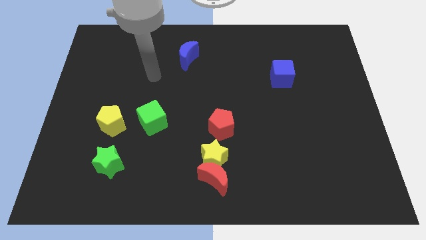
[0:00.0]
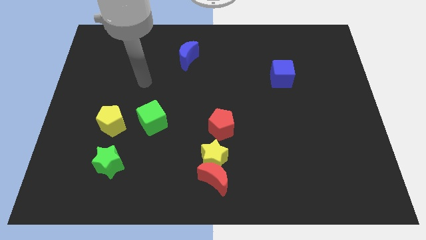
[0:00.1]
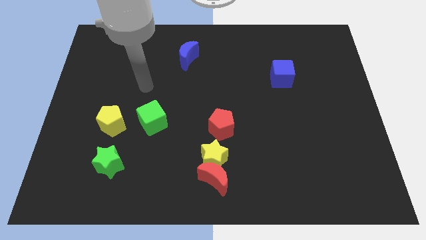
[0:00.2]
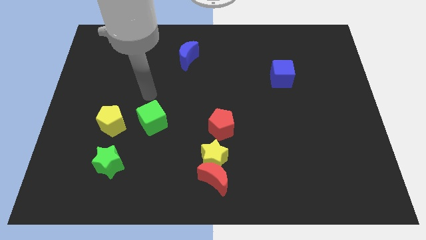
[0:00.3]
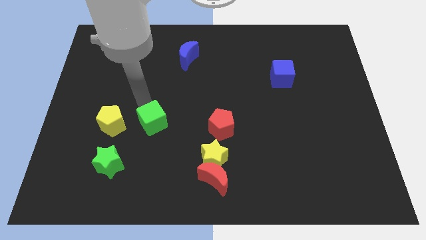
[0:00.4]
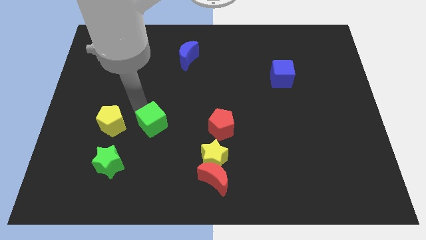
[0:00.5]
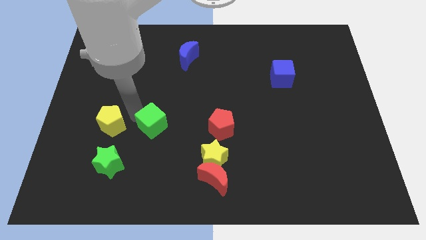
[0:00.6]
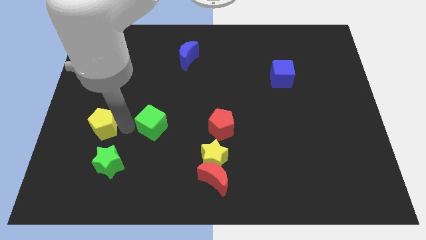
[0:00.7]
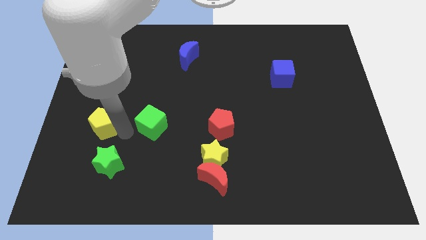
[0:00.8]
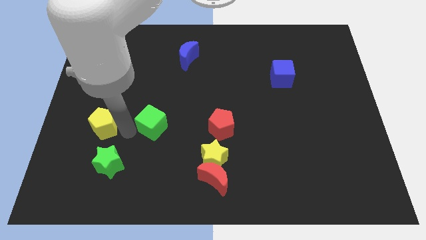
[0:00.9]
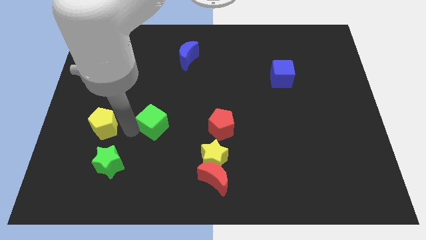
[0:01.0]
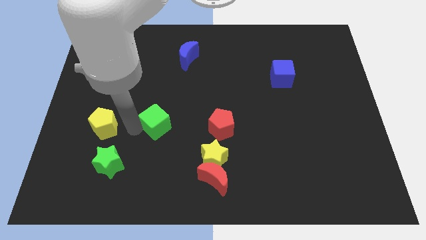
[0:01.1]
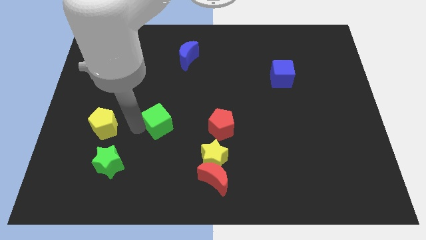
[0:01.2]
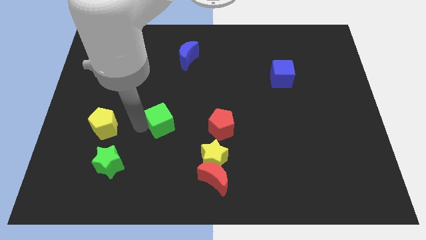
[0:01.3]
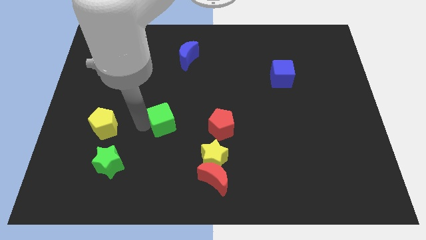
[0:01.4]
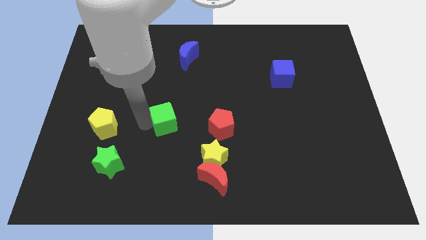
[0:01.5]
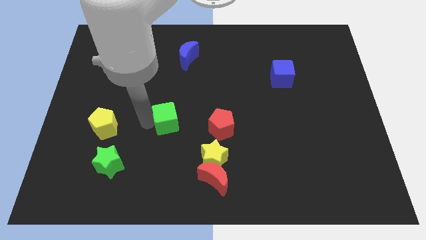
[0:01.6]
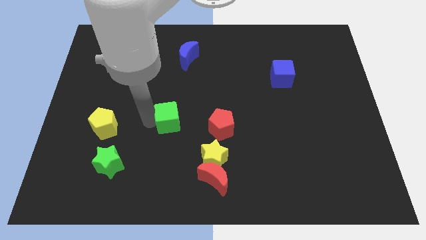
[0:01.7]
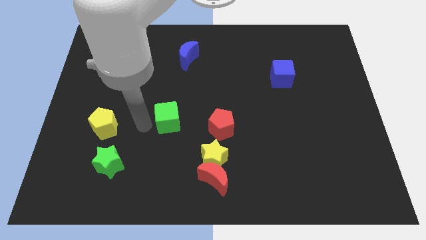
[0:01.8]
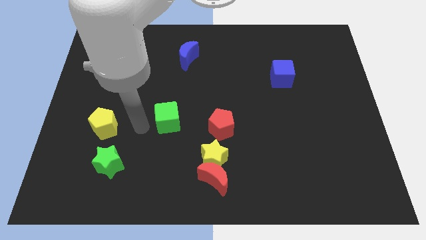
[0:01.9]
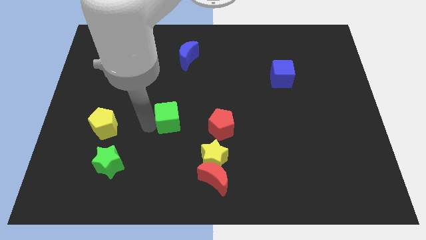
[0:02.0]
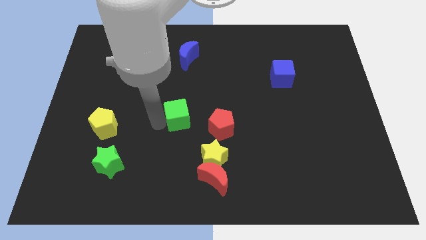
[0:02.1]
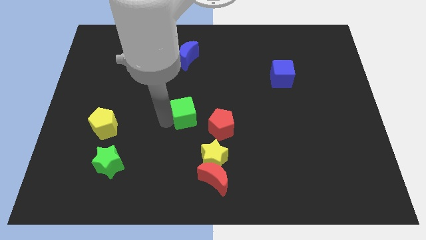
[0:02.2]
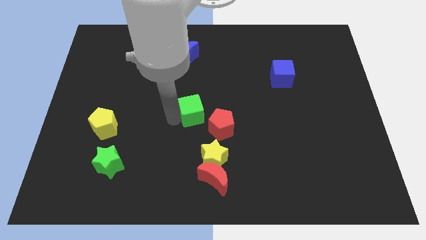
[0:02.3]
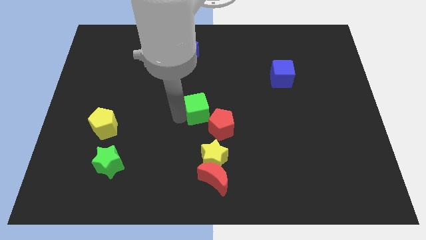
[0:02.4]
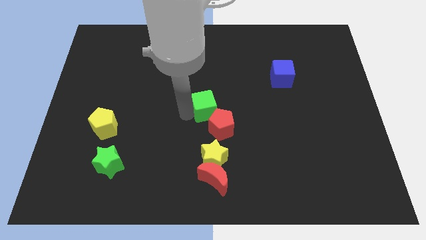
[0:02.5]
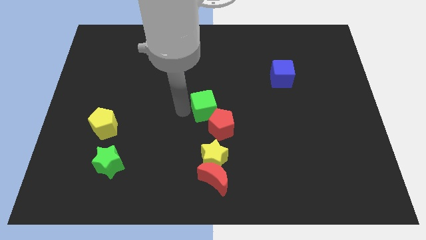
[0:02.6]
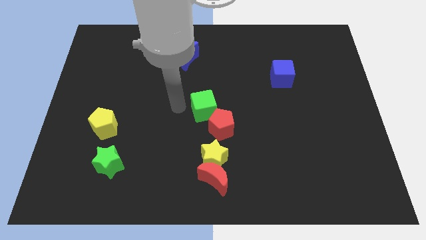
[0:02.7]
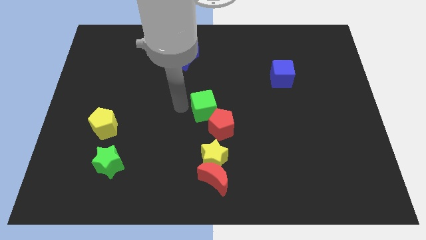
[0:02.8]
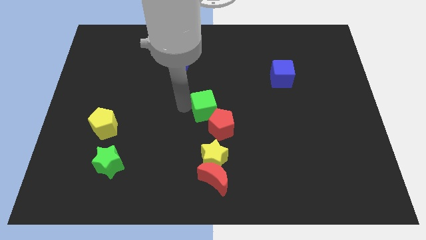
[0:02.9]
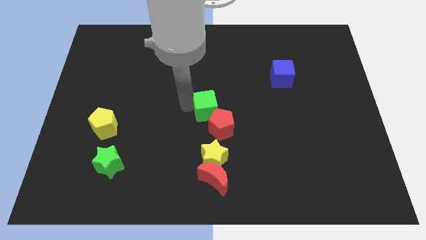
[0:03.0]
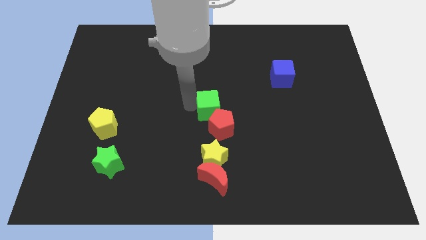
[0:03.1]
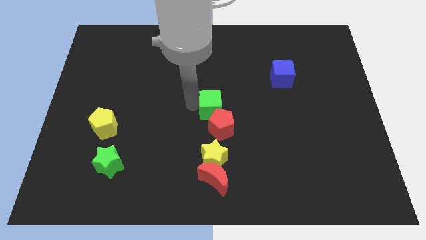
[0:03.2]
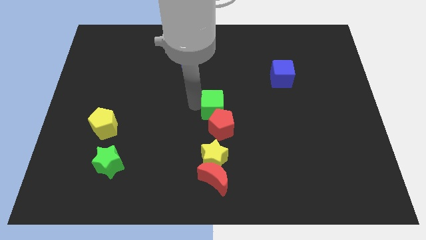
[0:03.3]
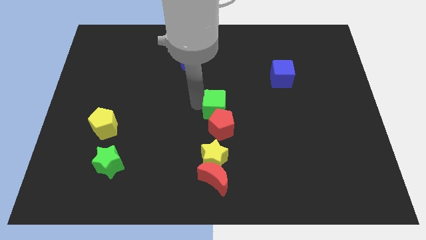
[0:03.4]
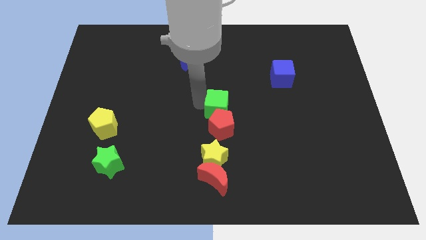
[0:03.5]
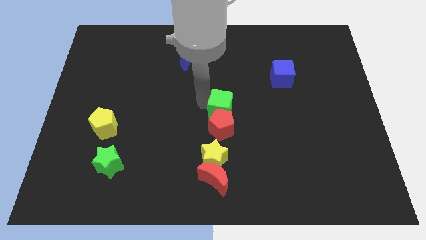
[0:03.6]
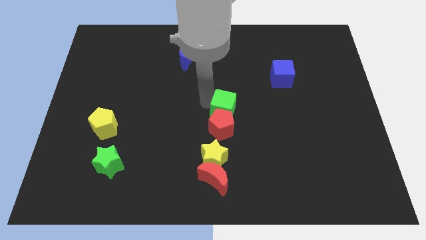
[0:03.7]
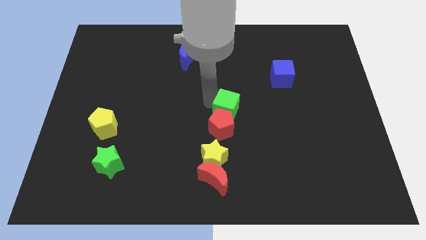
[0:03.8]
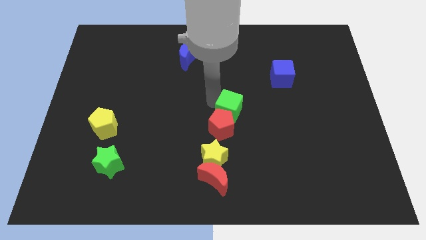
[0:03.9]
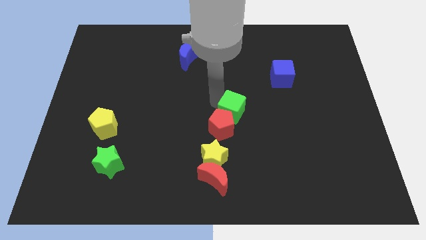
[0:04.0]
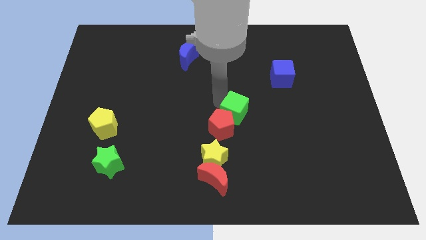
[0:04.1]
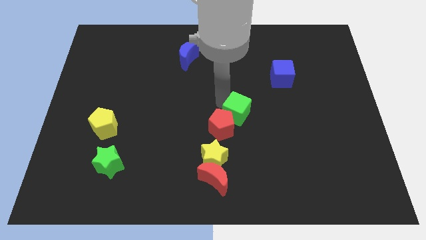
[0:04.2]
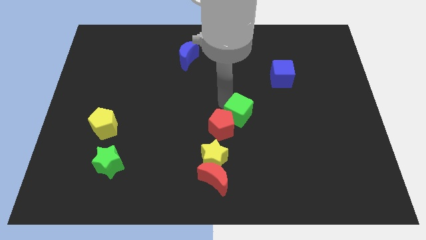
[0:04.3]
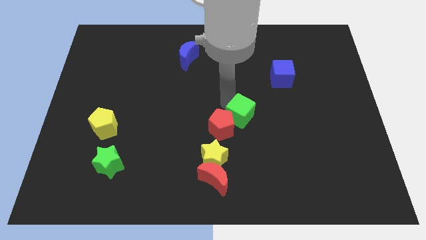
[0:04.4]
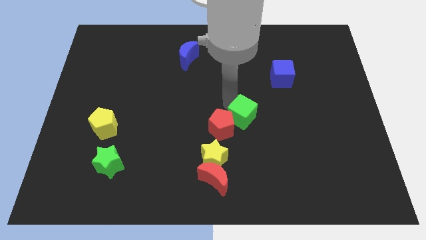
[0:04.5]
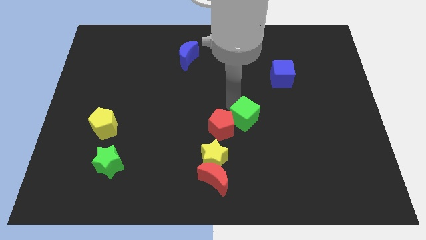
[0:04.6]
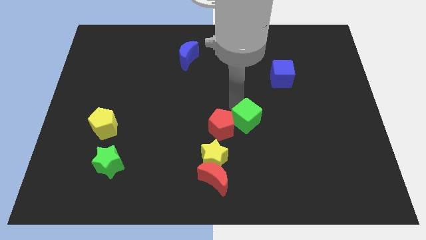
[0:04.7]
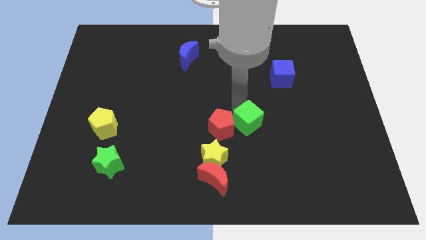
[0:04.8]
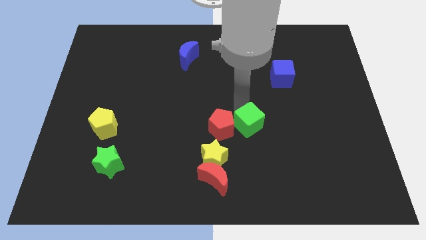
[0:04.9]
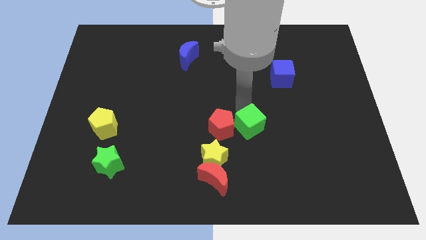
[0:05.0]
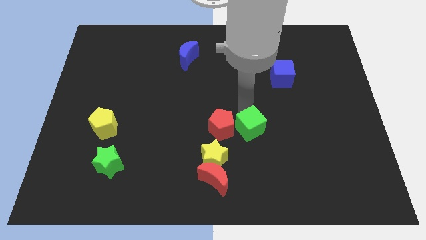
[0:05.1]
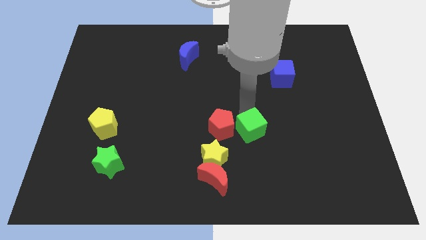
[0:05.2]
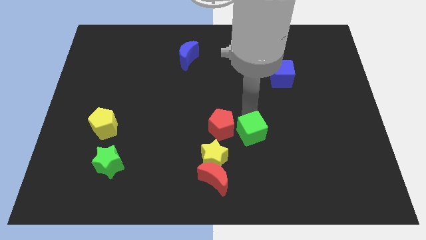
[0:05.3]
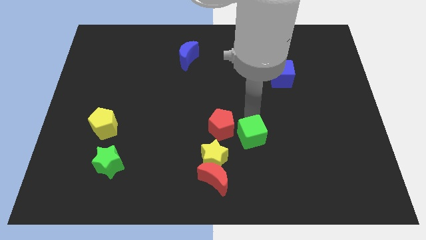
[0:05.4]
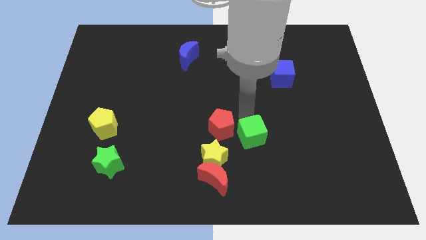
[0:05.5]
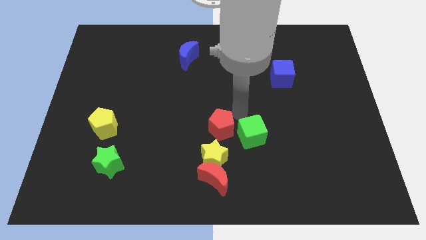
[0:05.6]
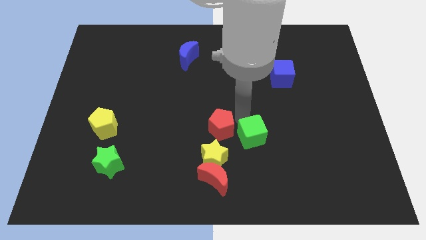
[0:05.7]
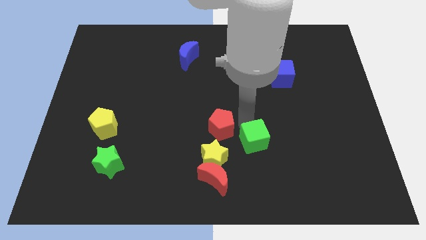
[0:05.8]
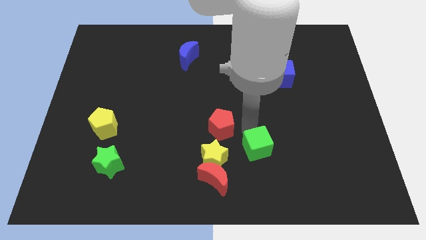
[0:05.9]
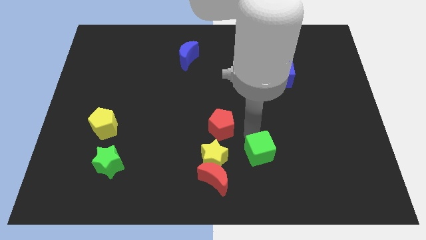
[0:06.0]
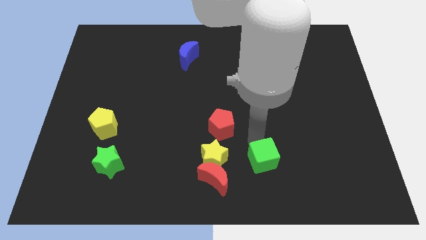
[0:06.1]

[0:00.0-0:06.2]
slide the green cube to the right side of the red moon

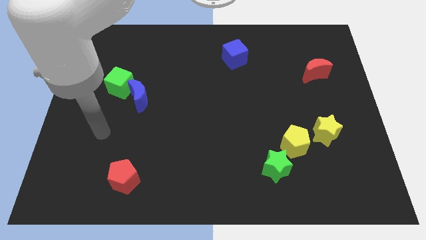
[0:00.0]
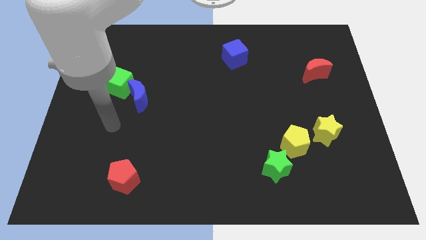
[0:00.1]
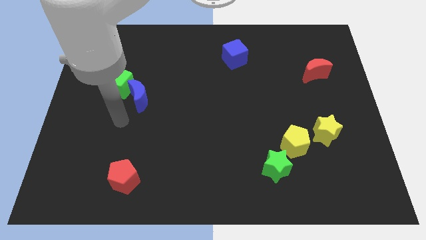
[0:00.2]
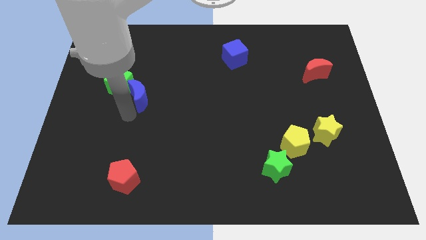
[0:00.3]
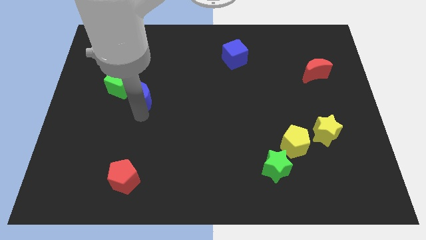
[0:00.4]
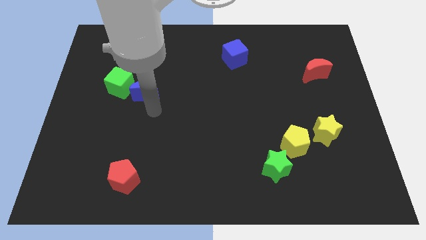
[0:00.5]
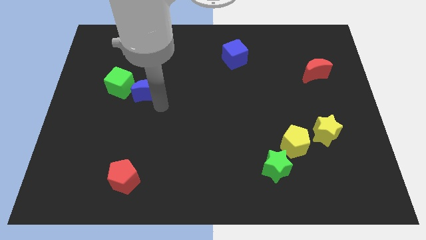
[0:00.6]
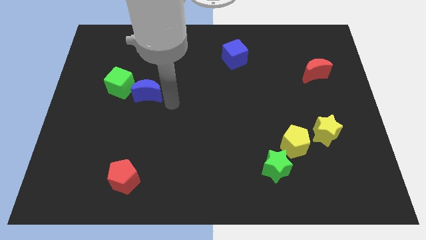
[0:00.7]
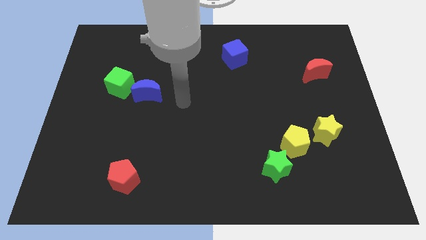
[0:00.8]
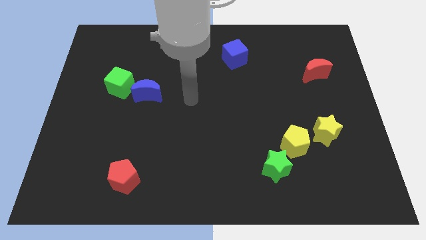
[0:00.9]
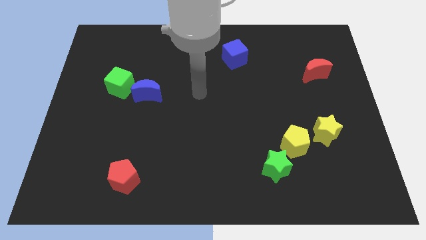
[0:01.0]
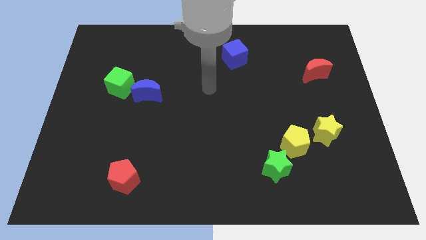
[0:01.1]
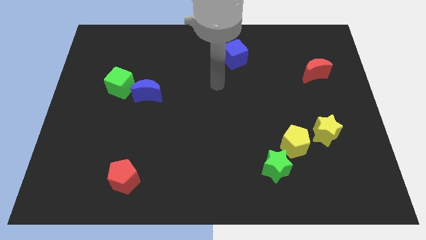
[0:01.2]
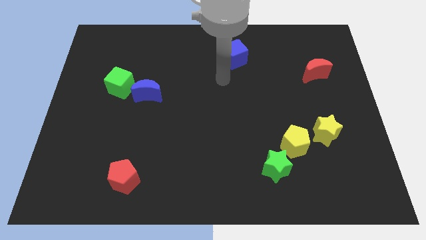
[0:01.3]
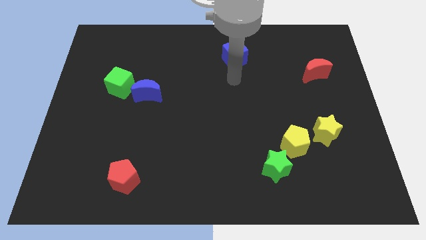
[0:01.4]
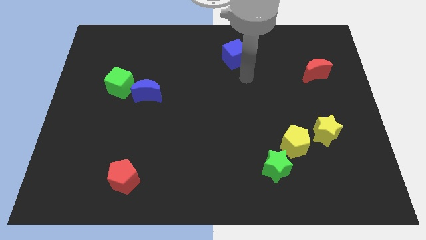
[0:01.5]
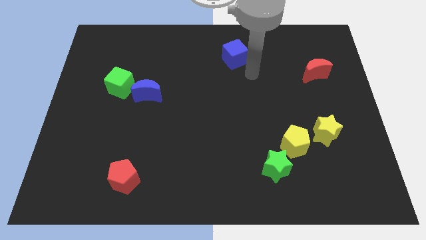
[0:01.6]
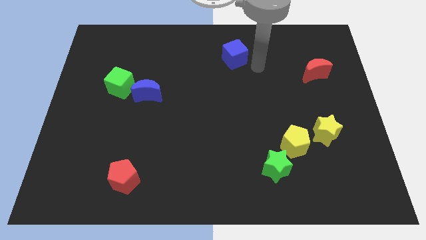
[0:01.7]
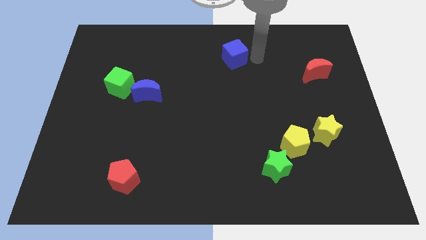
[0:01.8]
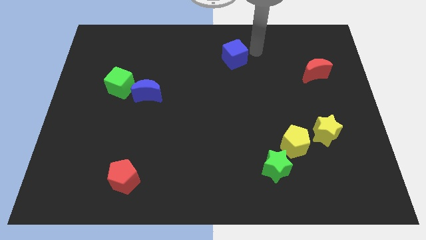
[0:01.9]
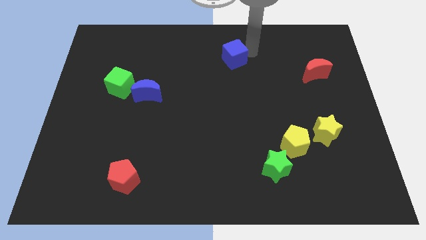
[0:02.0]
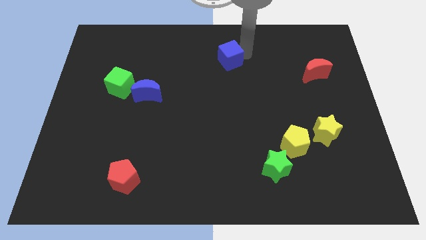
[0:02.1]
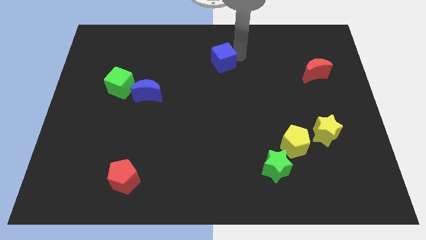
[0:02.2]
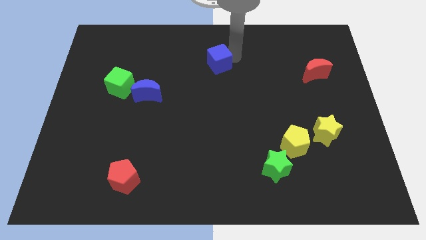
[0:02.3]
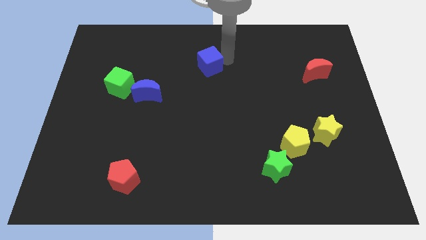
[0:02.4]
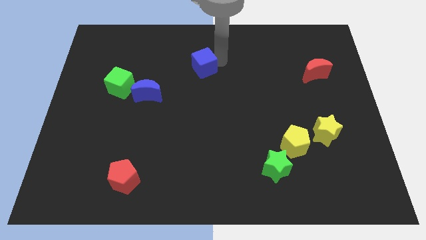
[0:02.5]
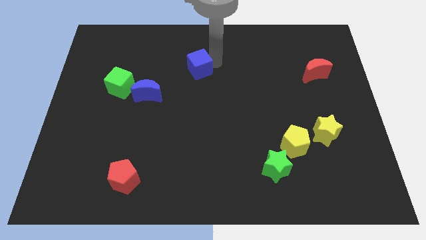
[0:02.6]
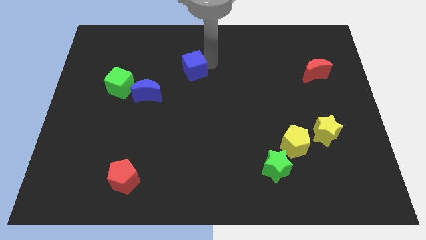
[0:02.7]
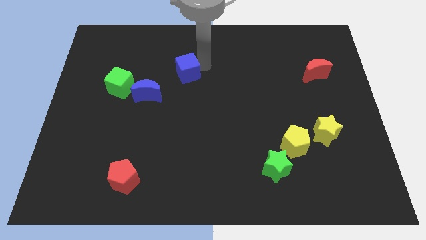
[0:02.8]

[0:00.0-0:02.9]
slide the blue cube to the top right side of the blue moon
